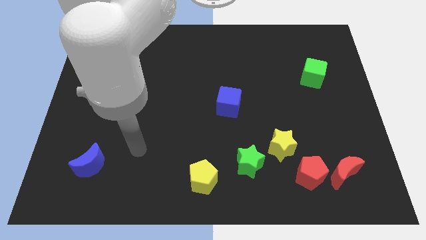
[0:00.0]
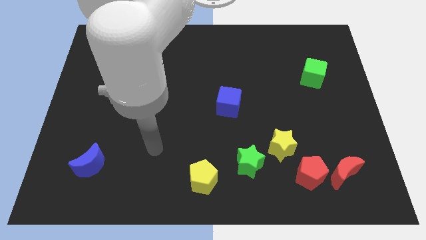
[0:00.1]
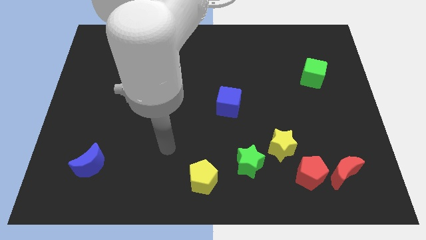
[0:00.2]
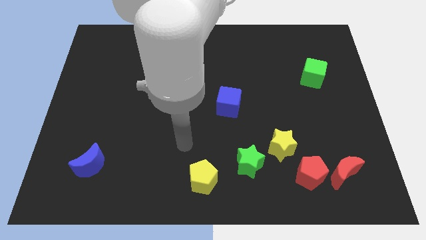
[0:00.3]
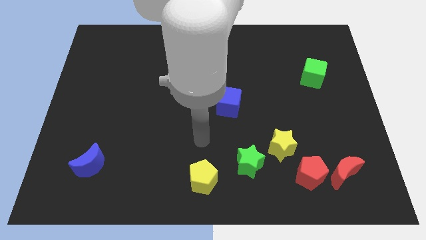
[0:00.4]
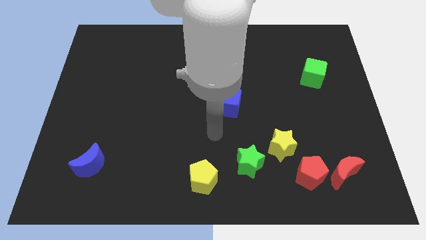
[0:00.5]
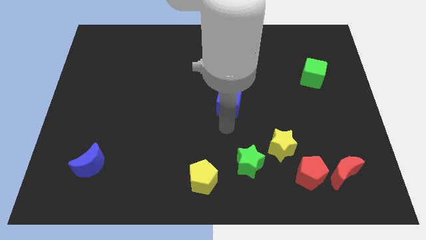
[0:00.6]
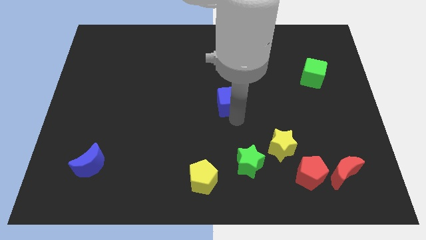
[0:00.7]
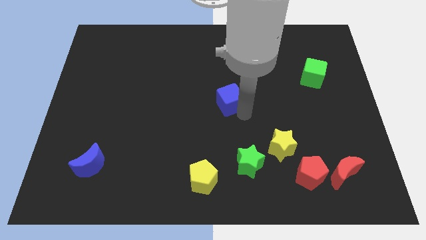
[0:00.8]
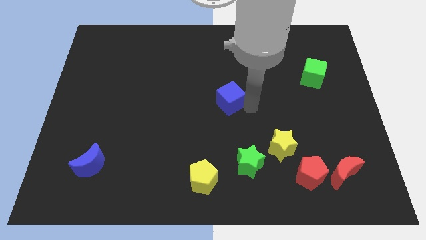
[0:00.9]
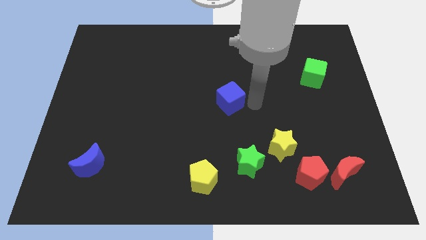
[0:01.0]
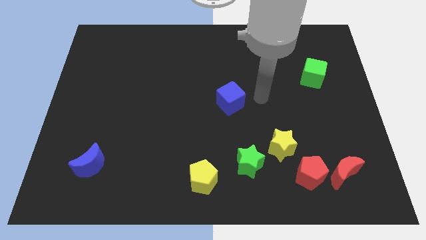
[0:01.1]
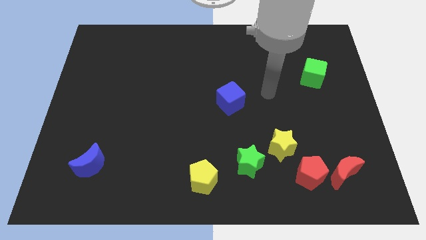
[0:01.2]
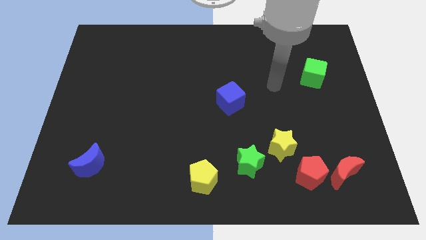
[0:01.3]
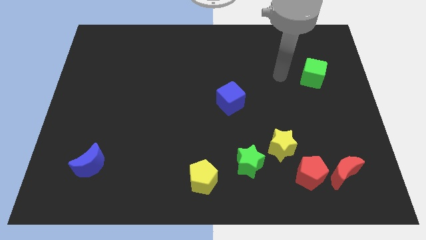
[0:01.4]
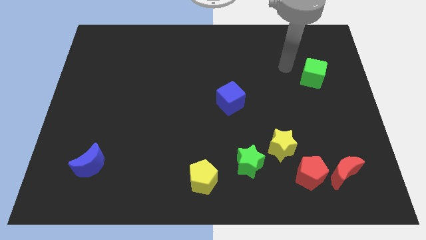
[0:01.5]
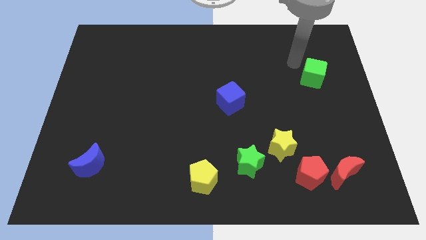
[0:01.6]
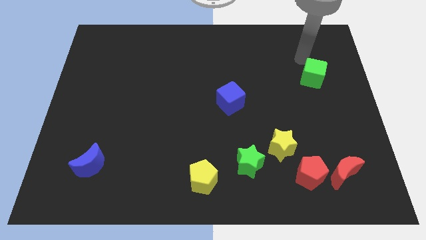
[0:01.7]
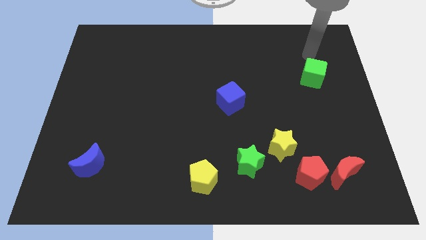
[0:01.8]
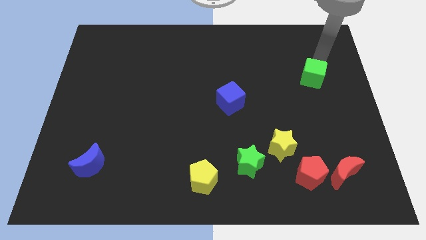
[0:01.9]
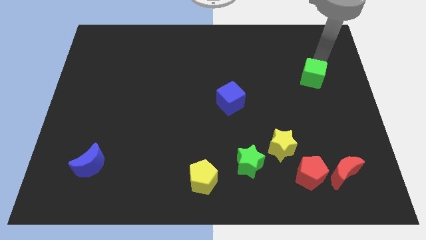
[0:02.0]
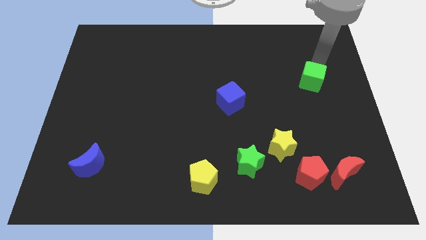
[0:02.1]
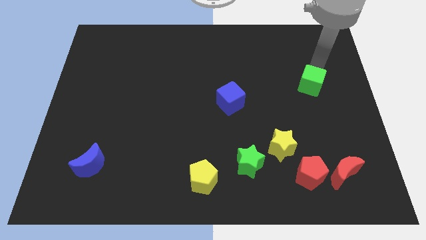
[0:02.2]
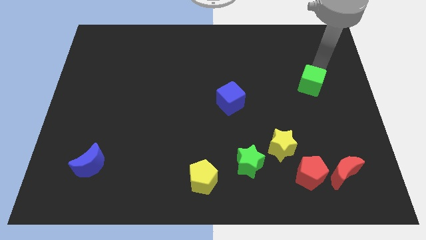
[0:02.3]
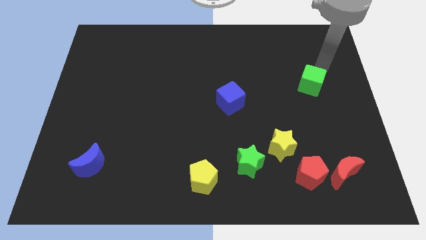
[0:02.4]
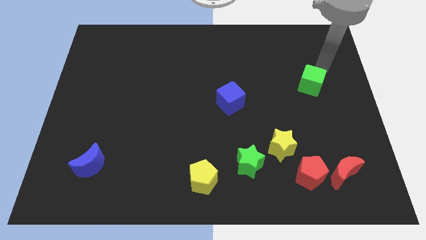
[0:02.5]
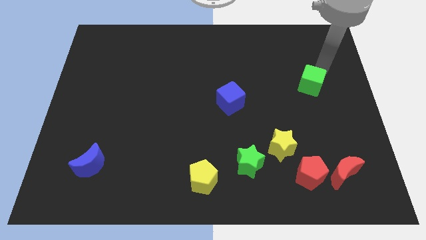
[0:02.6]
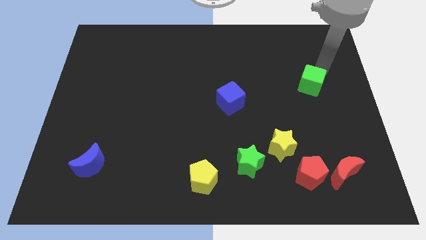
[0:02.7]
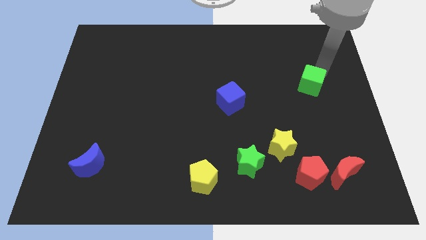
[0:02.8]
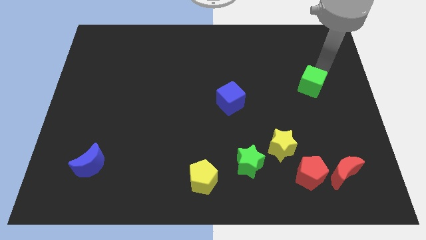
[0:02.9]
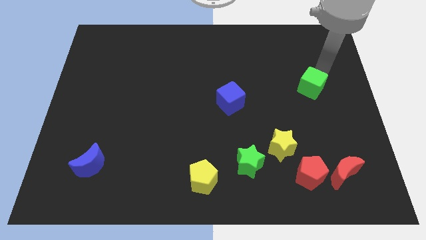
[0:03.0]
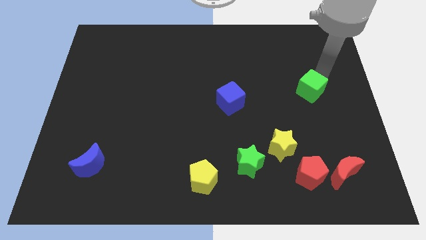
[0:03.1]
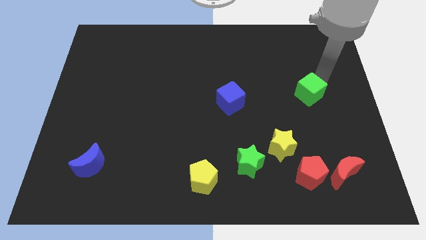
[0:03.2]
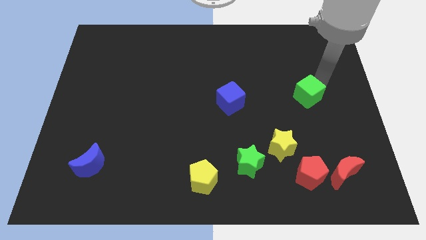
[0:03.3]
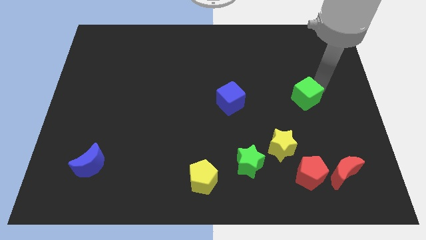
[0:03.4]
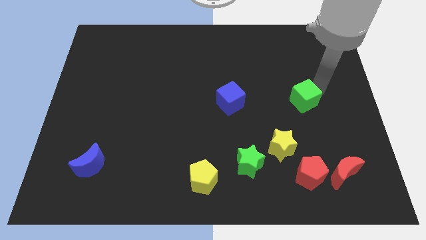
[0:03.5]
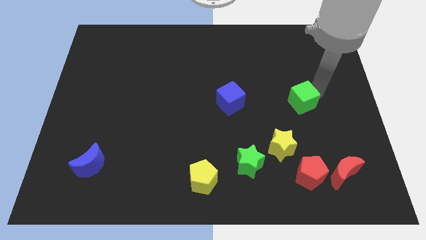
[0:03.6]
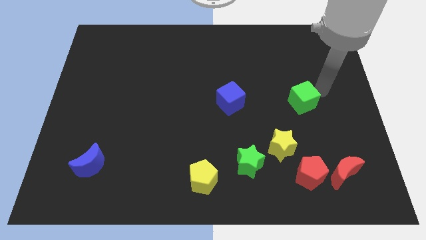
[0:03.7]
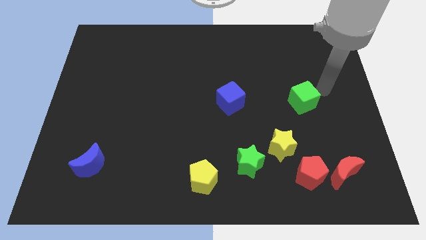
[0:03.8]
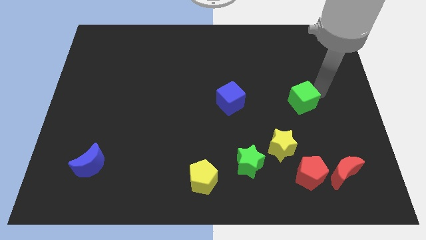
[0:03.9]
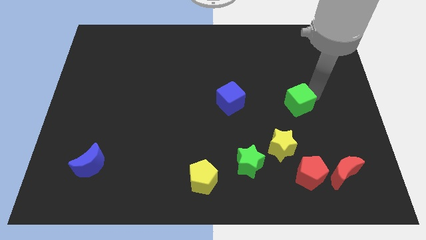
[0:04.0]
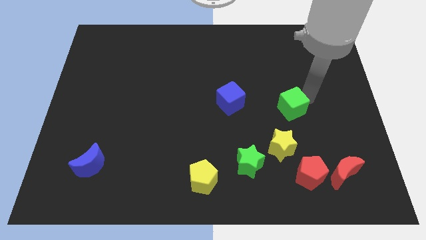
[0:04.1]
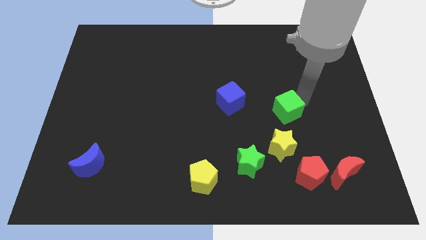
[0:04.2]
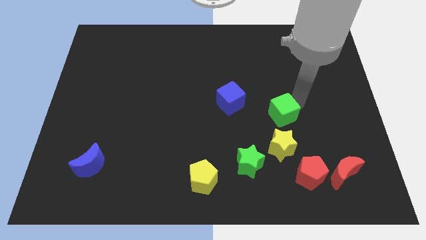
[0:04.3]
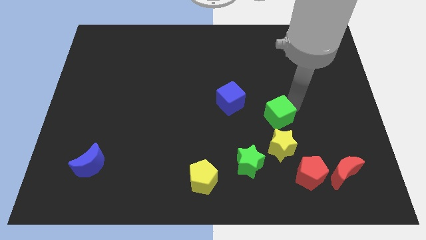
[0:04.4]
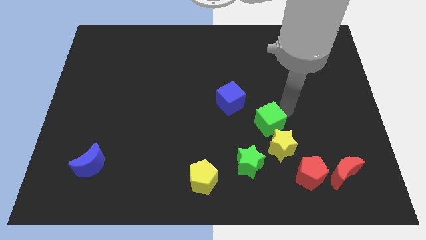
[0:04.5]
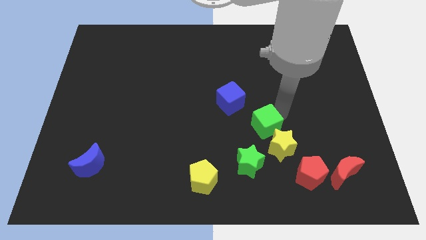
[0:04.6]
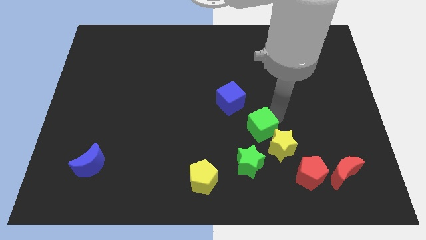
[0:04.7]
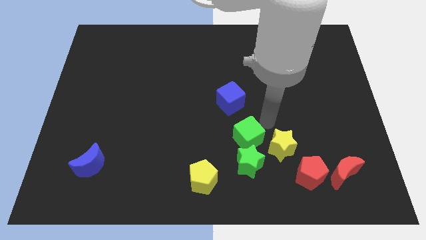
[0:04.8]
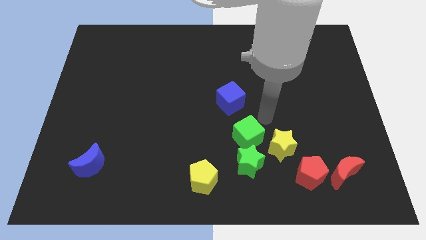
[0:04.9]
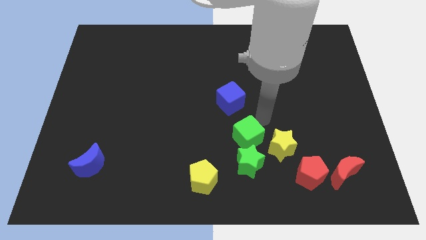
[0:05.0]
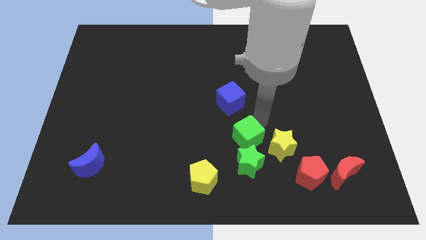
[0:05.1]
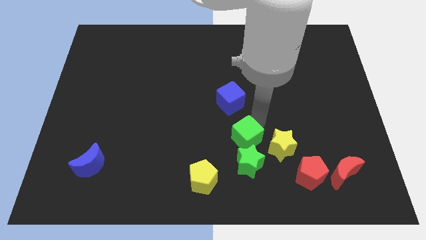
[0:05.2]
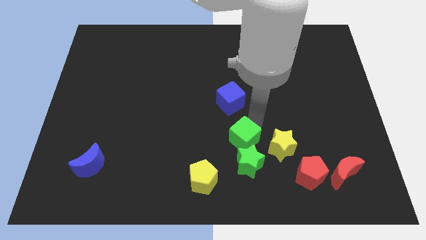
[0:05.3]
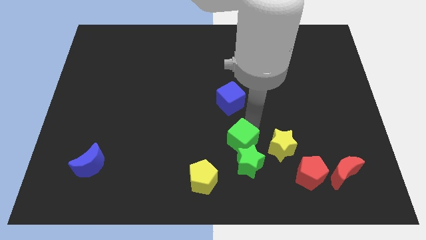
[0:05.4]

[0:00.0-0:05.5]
push the green cube to the top right of the yellow pentagon

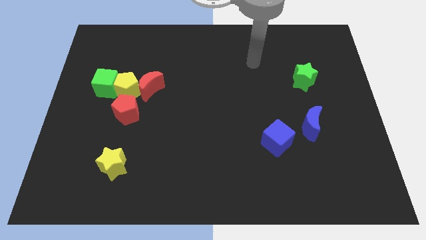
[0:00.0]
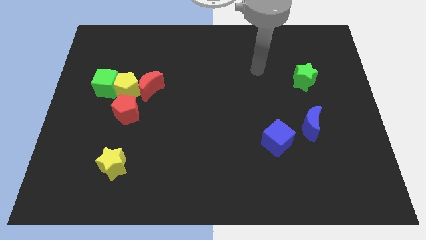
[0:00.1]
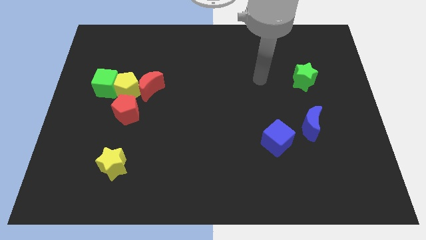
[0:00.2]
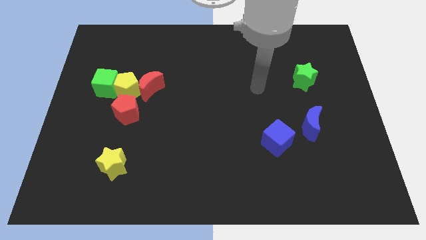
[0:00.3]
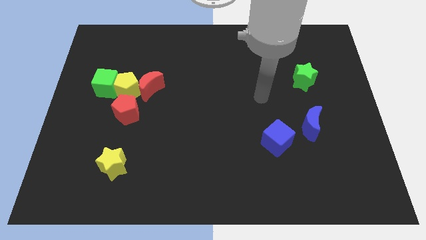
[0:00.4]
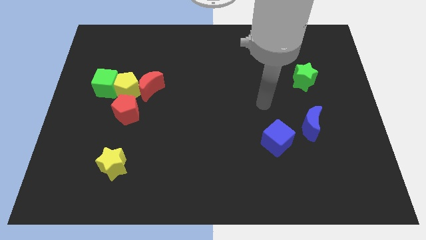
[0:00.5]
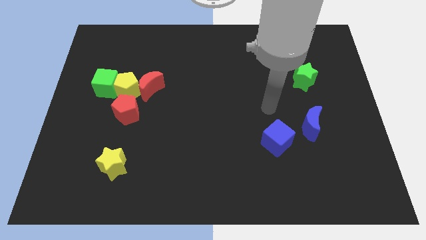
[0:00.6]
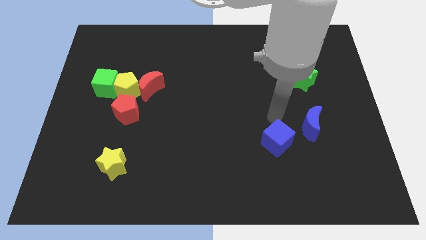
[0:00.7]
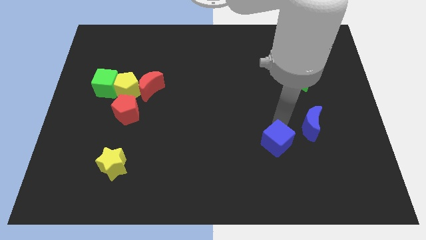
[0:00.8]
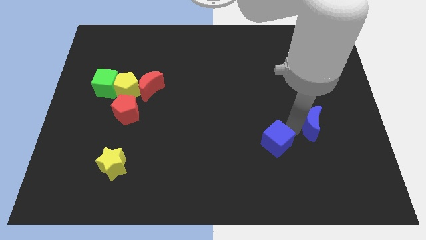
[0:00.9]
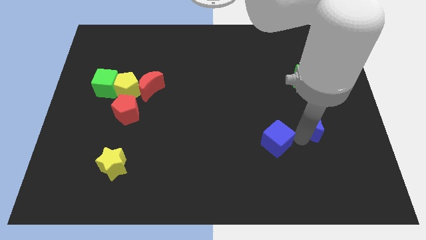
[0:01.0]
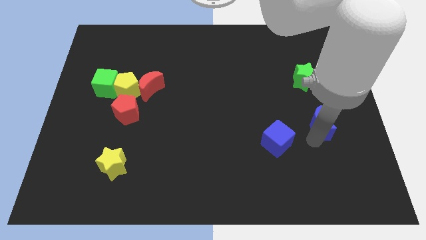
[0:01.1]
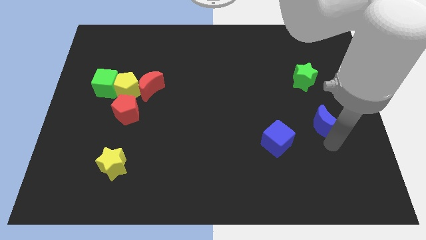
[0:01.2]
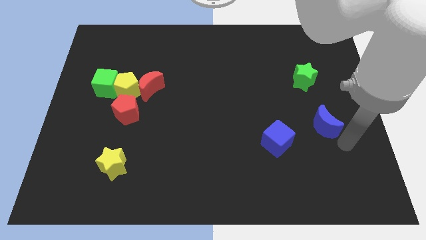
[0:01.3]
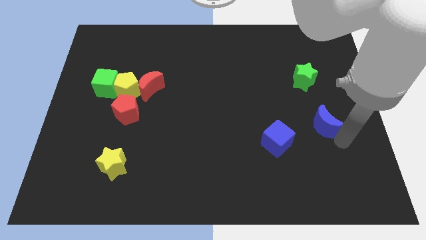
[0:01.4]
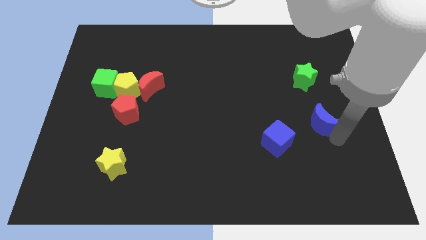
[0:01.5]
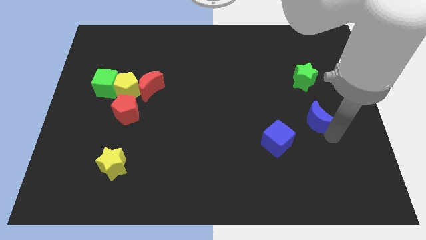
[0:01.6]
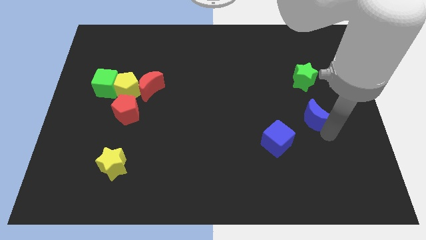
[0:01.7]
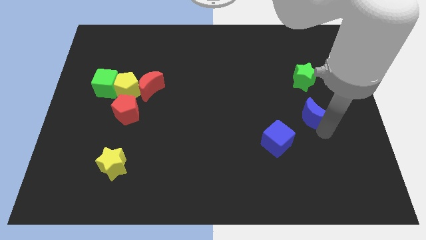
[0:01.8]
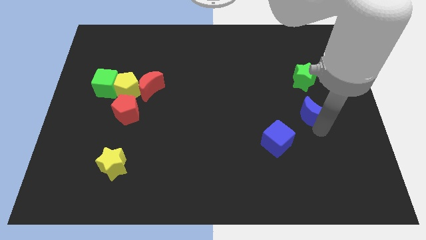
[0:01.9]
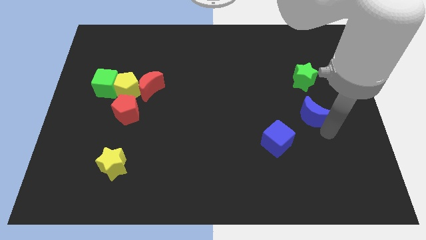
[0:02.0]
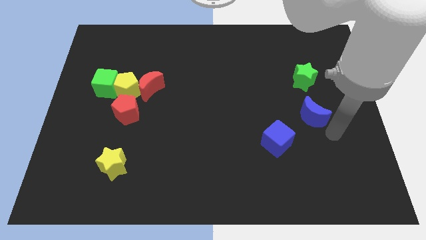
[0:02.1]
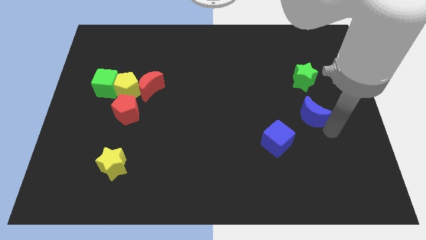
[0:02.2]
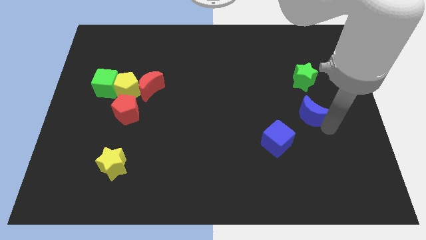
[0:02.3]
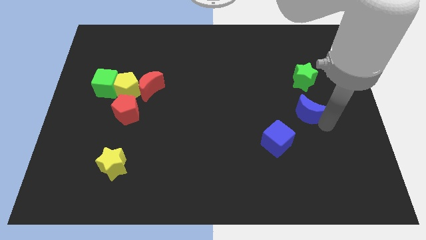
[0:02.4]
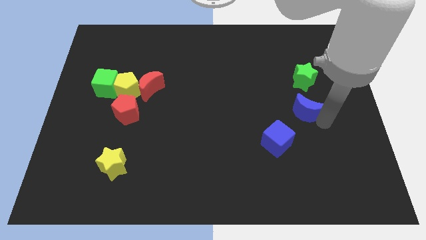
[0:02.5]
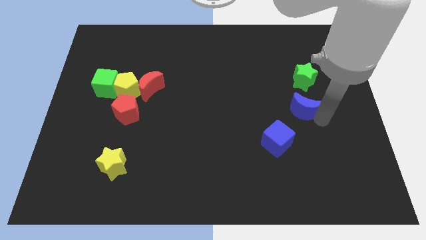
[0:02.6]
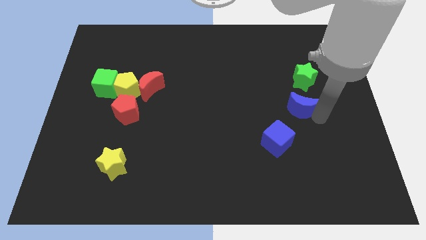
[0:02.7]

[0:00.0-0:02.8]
move the blue moon diagonally down and to the left of the green star
